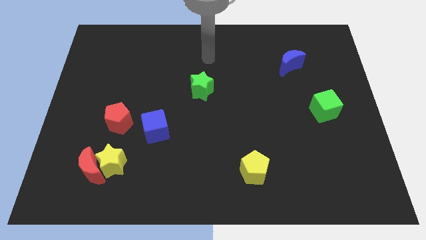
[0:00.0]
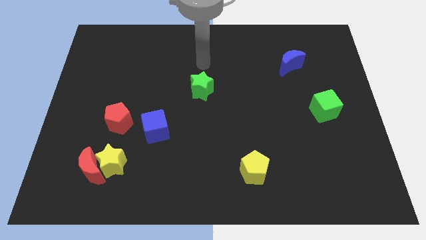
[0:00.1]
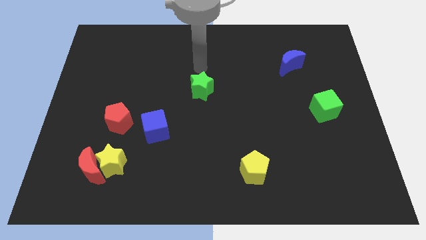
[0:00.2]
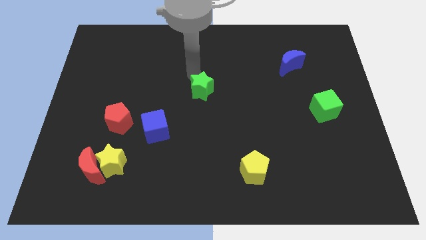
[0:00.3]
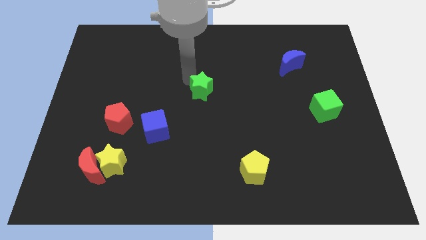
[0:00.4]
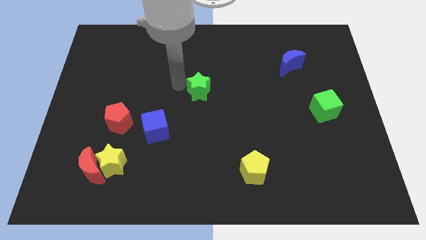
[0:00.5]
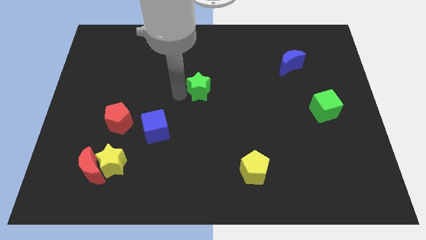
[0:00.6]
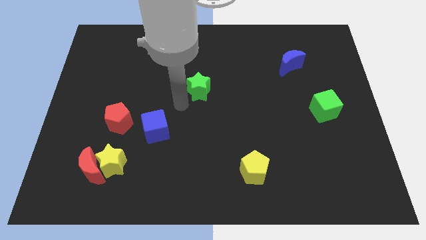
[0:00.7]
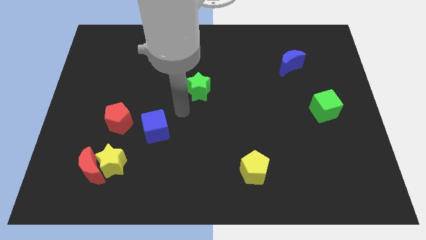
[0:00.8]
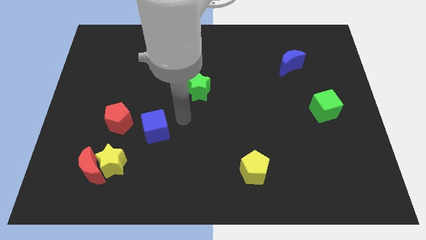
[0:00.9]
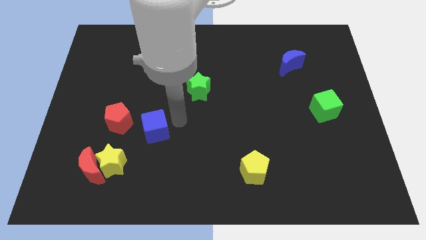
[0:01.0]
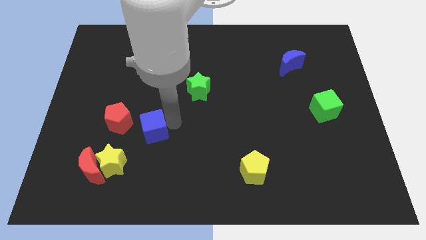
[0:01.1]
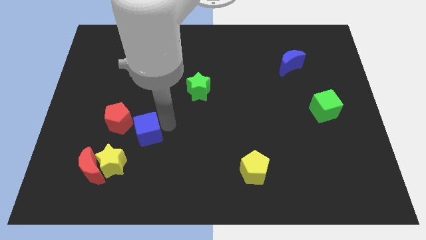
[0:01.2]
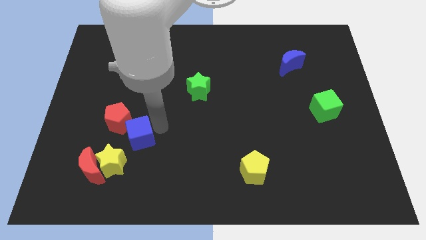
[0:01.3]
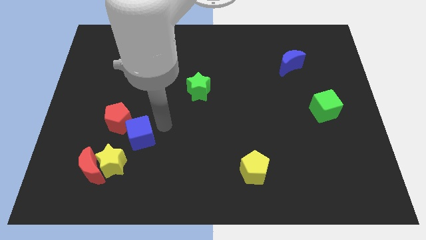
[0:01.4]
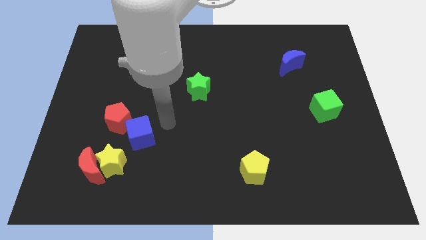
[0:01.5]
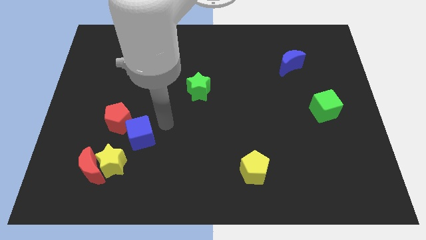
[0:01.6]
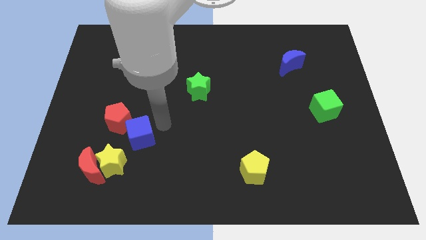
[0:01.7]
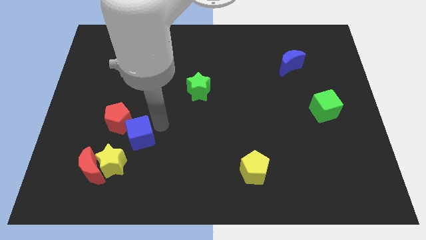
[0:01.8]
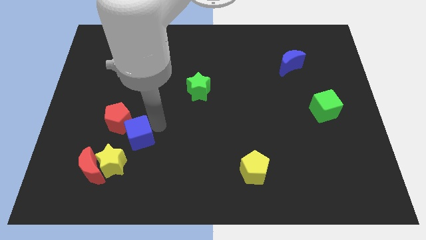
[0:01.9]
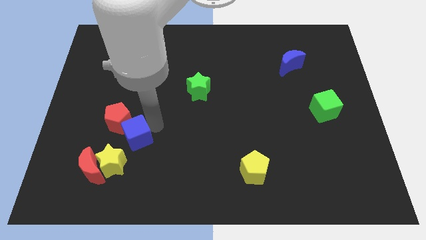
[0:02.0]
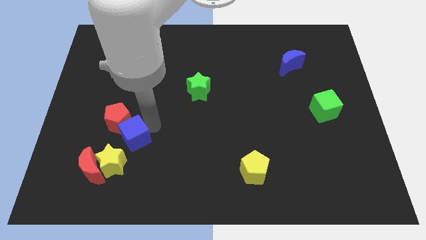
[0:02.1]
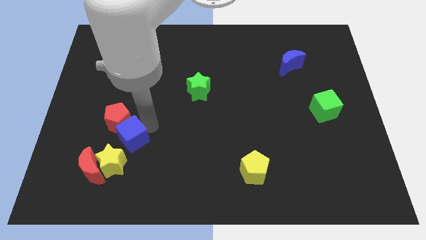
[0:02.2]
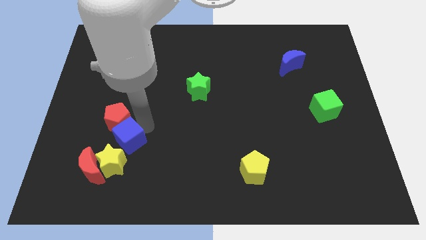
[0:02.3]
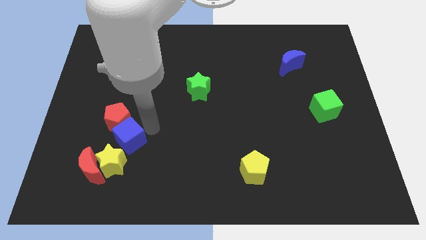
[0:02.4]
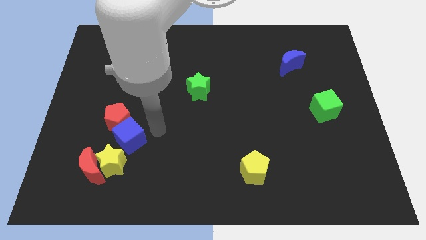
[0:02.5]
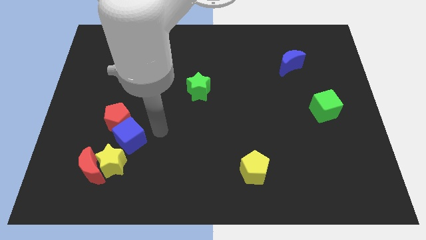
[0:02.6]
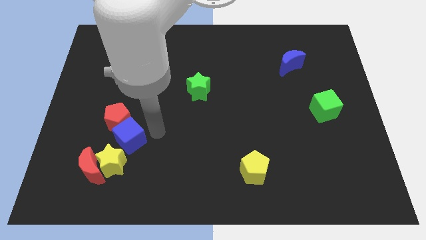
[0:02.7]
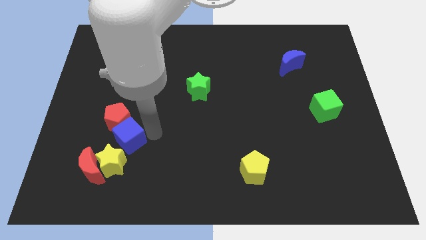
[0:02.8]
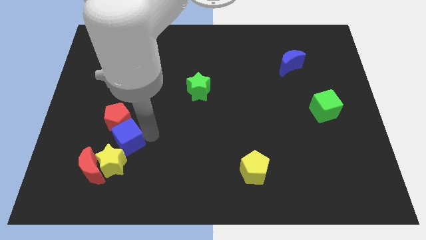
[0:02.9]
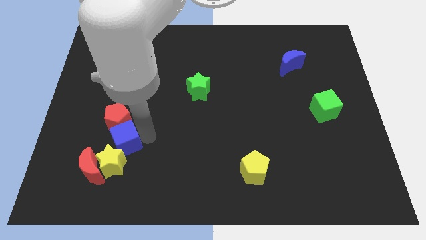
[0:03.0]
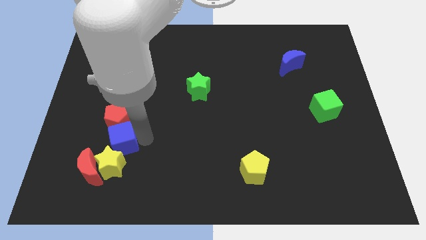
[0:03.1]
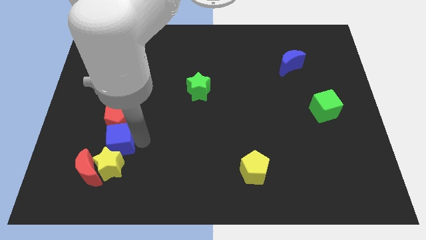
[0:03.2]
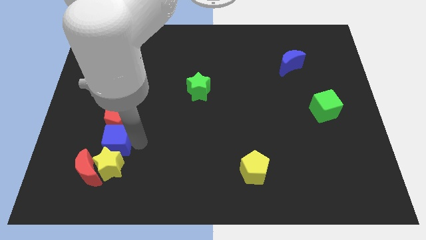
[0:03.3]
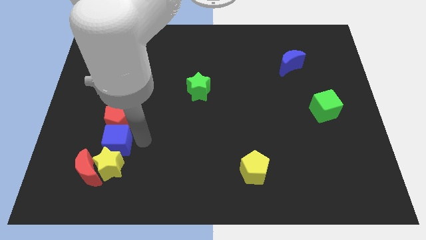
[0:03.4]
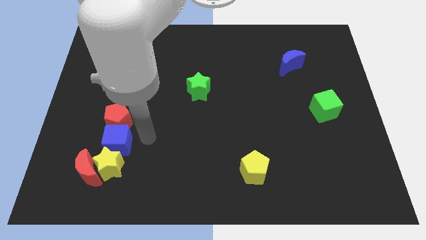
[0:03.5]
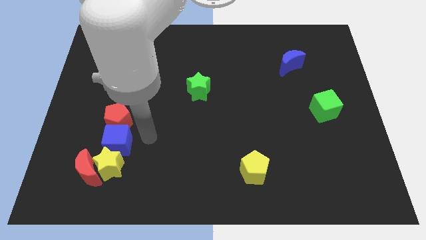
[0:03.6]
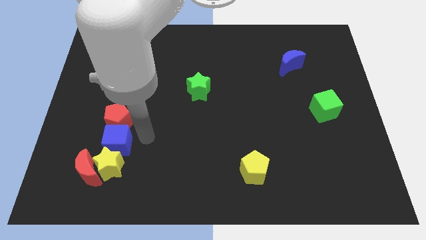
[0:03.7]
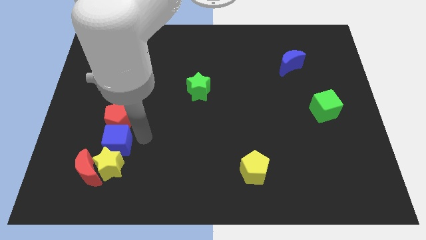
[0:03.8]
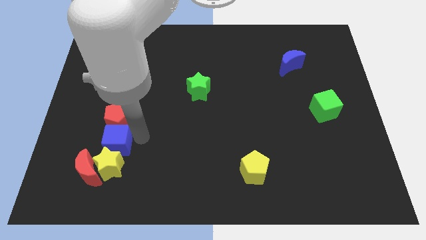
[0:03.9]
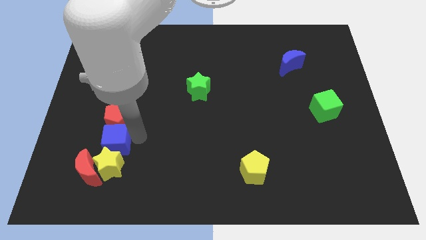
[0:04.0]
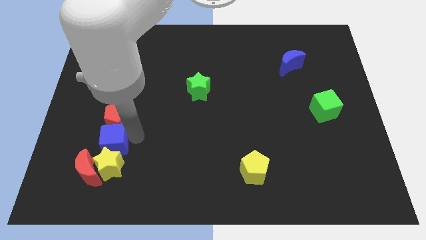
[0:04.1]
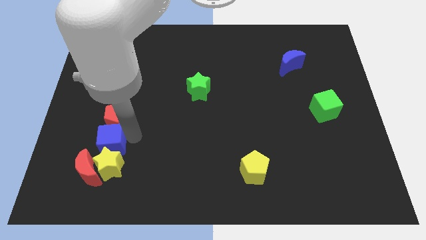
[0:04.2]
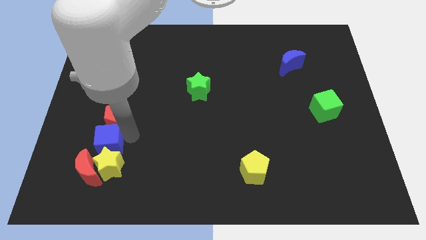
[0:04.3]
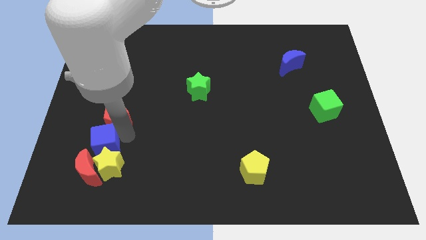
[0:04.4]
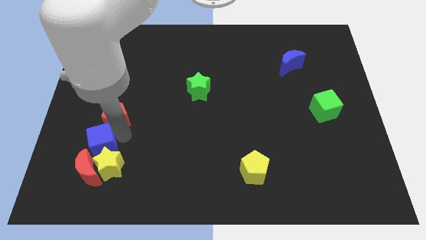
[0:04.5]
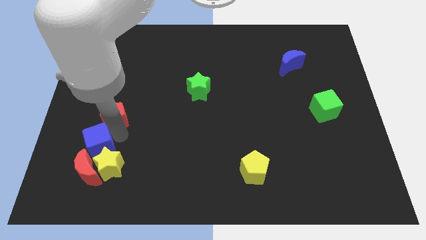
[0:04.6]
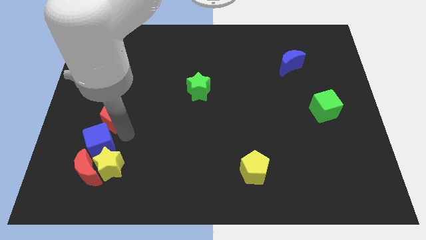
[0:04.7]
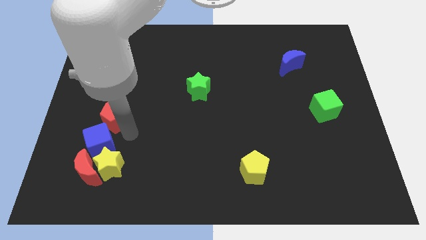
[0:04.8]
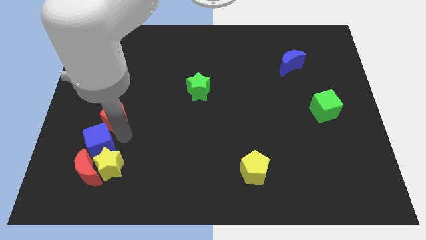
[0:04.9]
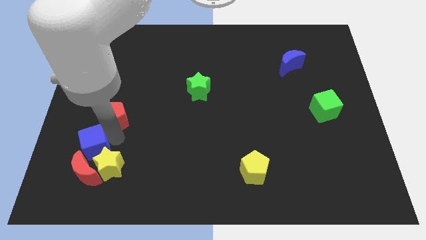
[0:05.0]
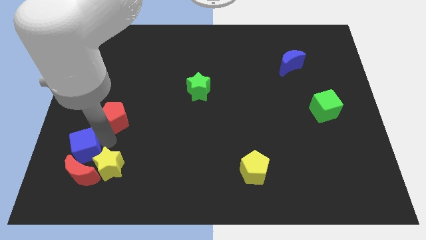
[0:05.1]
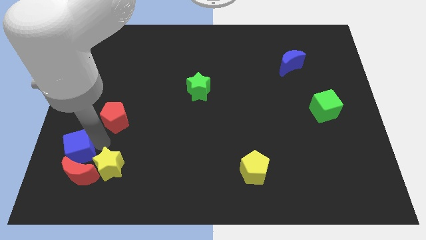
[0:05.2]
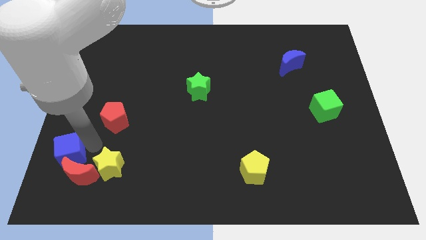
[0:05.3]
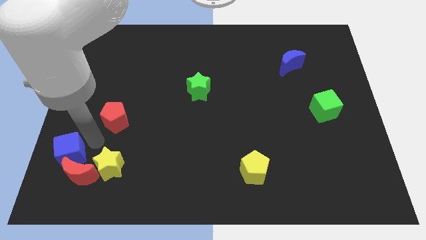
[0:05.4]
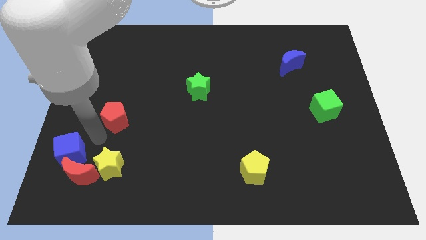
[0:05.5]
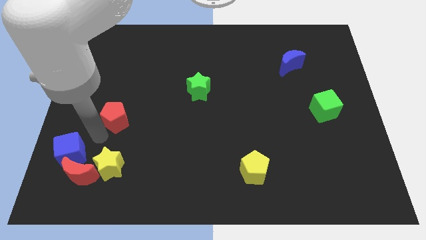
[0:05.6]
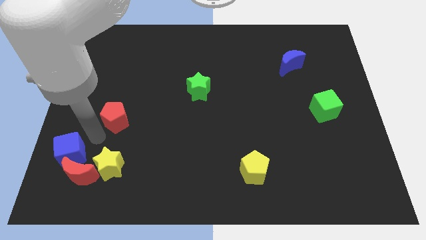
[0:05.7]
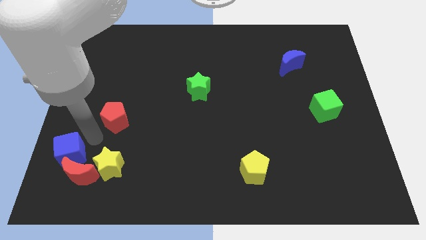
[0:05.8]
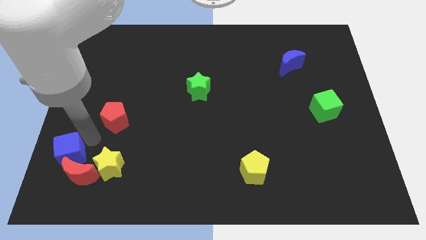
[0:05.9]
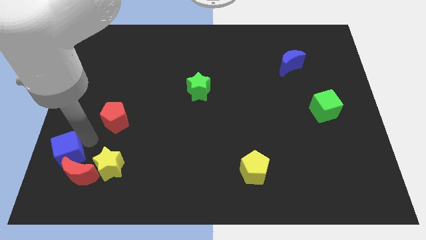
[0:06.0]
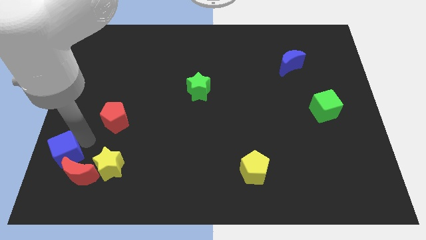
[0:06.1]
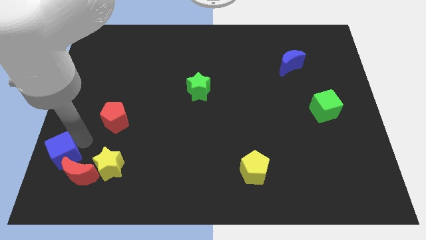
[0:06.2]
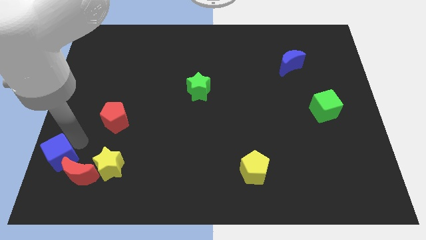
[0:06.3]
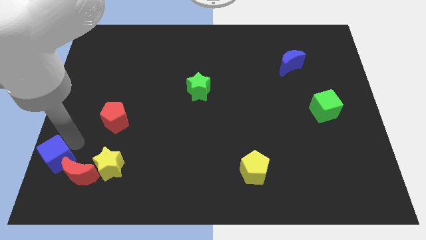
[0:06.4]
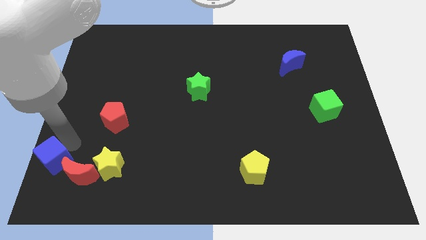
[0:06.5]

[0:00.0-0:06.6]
move the blue cube to the bottom left
